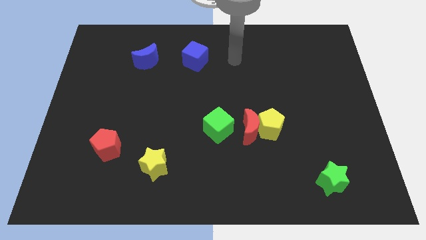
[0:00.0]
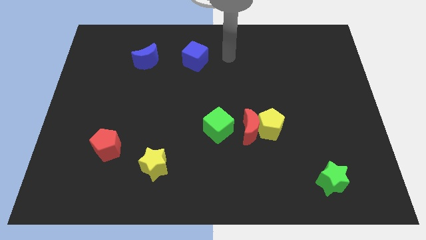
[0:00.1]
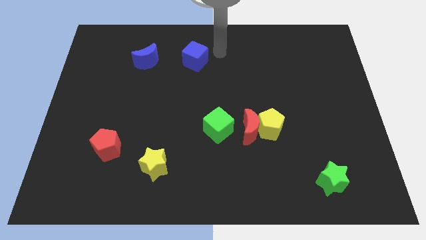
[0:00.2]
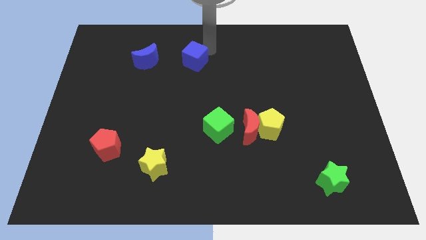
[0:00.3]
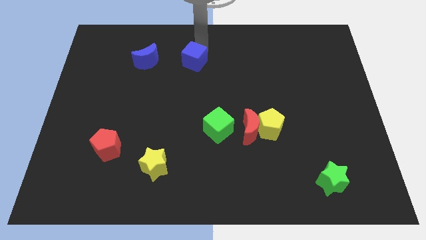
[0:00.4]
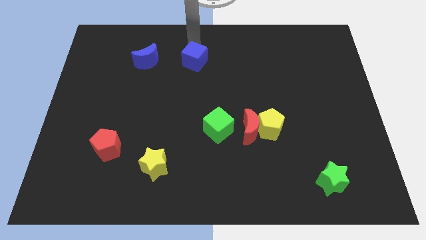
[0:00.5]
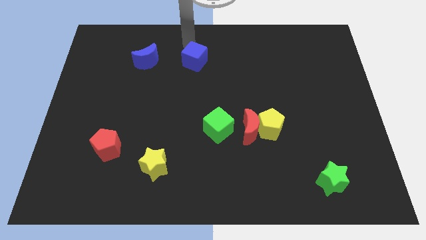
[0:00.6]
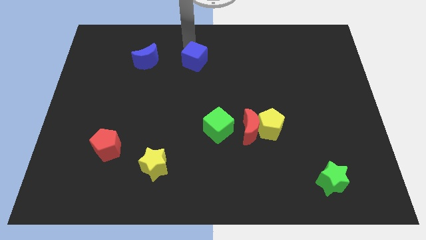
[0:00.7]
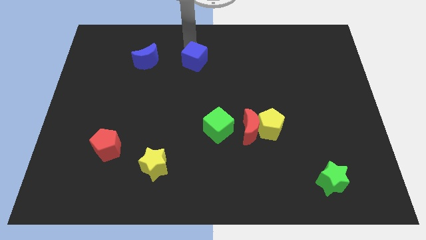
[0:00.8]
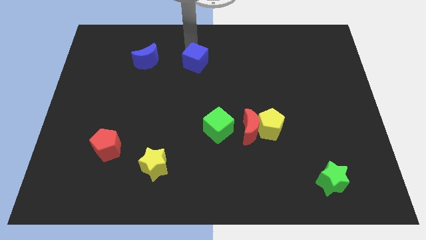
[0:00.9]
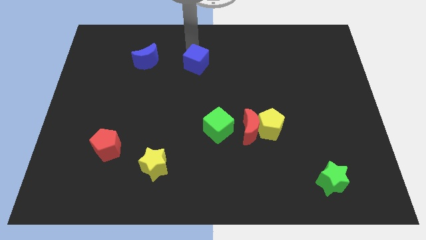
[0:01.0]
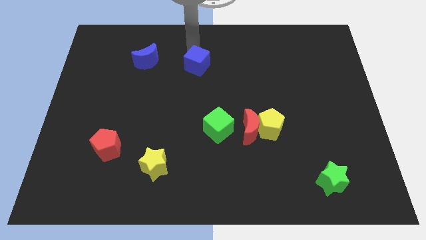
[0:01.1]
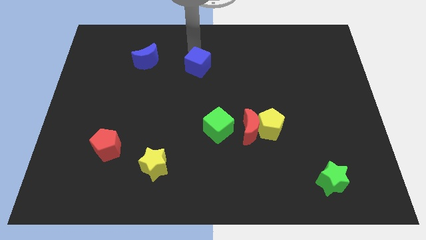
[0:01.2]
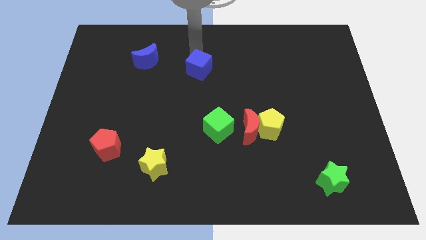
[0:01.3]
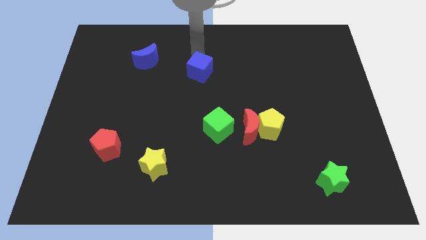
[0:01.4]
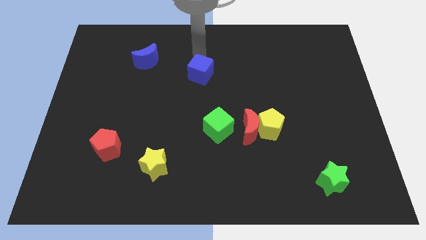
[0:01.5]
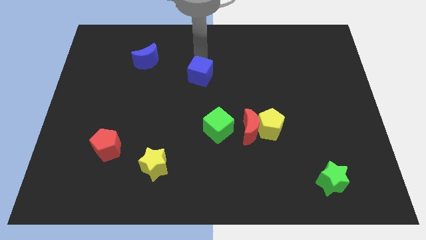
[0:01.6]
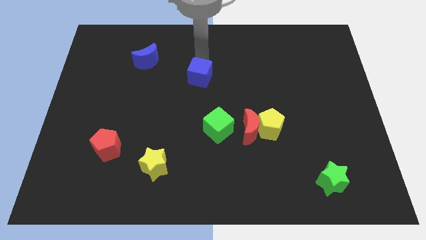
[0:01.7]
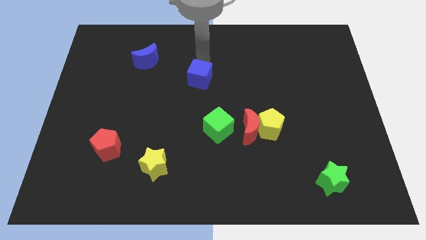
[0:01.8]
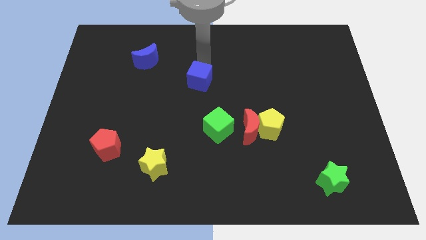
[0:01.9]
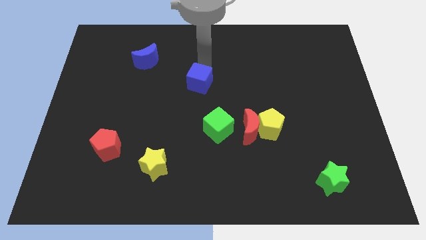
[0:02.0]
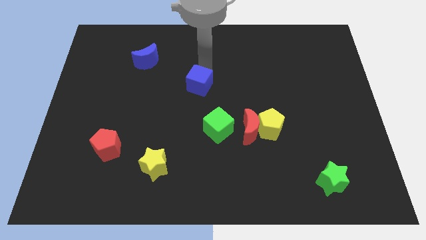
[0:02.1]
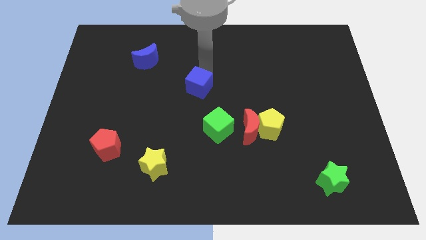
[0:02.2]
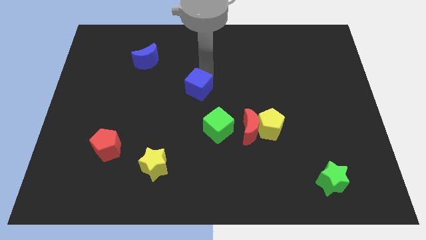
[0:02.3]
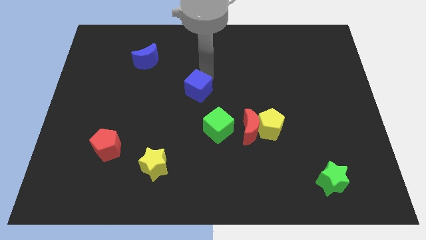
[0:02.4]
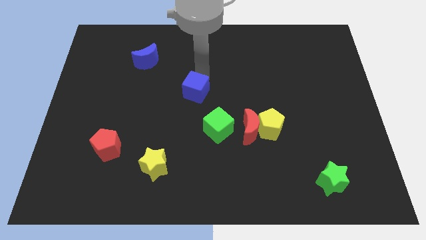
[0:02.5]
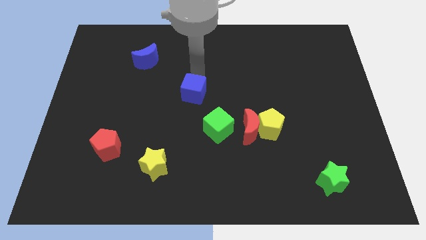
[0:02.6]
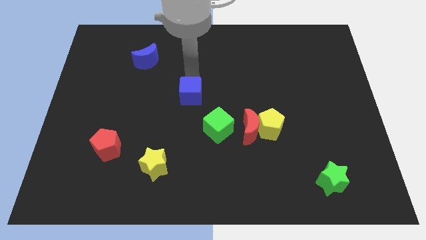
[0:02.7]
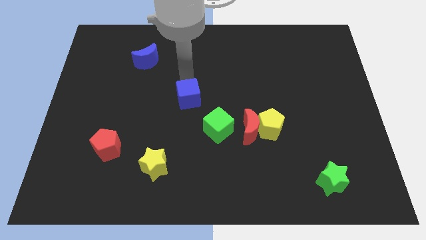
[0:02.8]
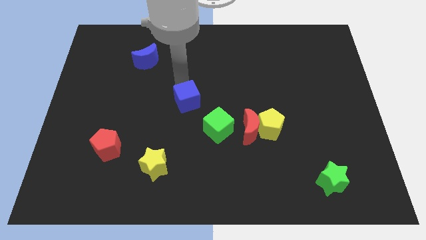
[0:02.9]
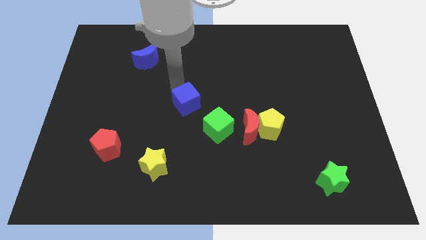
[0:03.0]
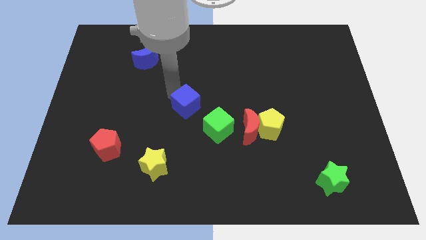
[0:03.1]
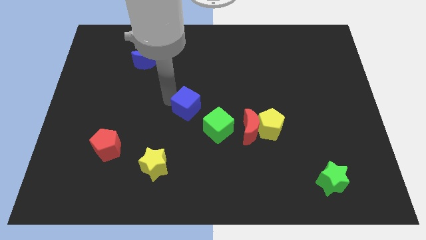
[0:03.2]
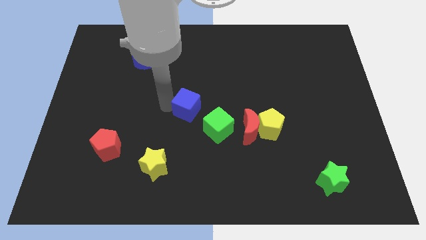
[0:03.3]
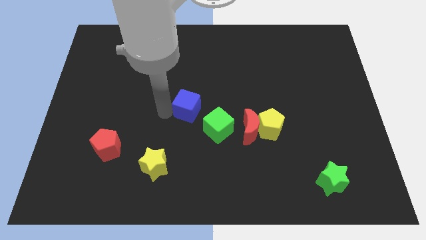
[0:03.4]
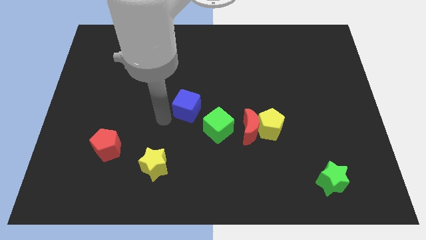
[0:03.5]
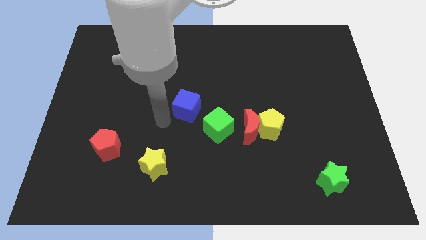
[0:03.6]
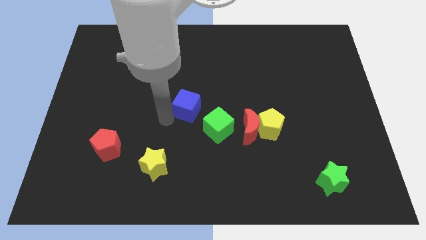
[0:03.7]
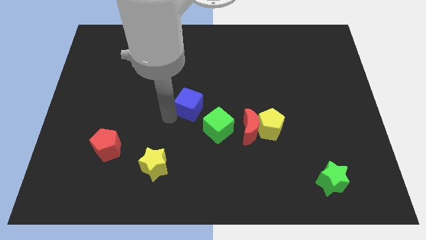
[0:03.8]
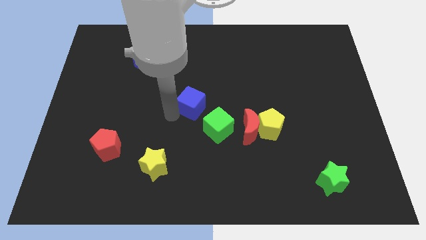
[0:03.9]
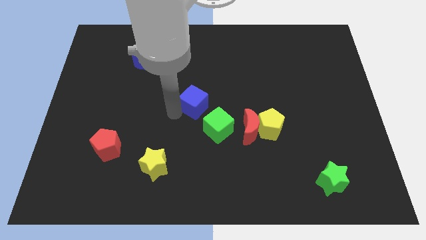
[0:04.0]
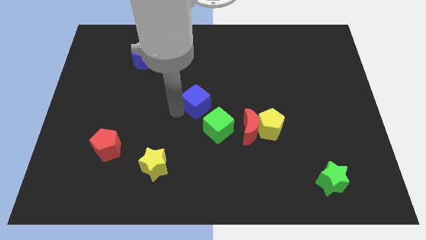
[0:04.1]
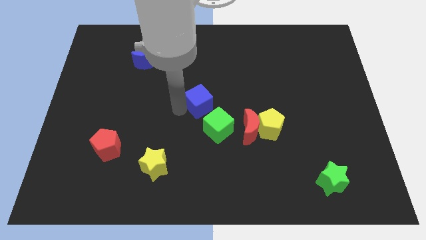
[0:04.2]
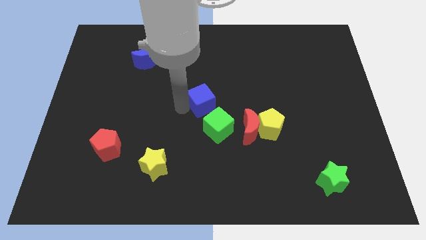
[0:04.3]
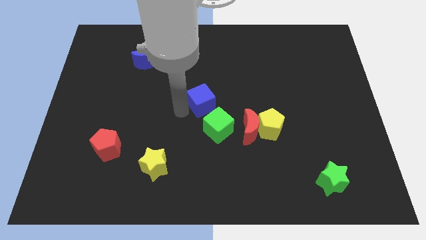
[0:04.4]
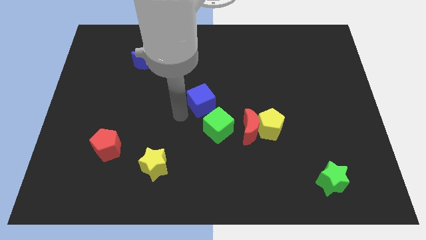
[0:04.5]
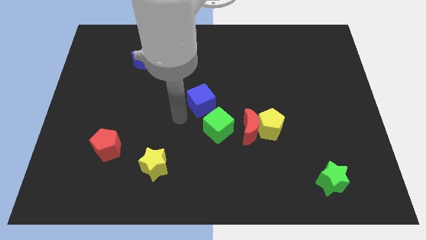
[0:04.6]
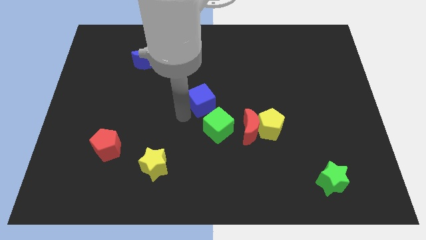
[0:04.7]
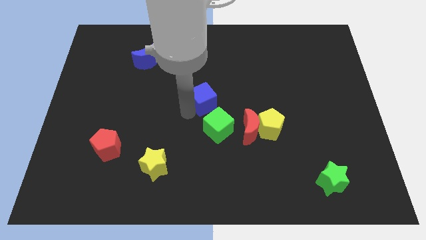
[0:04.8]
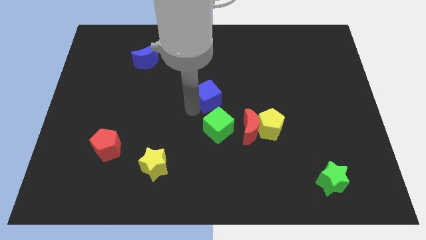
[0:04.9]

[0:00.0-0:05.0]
move the blue cube to the top left side of the red moon

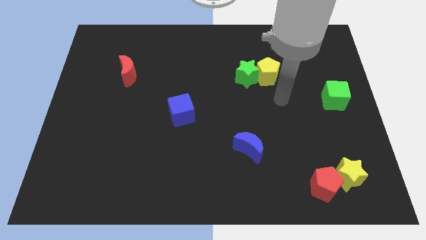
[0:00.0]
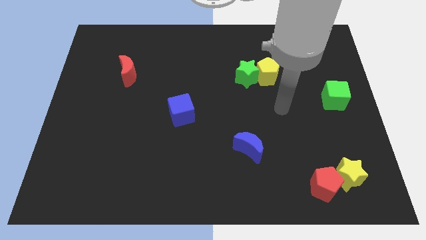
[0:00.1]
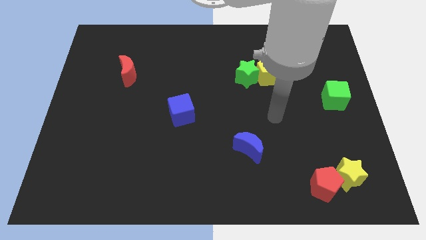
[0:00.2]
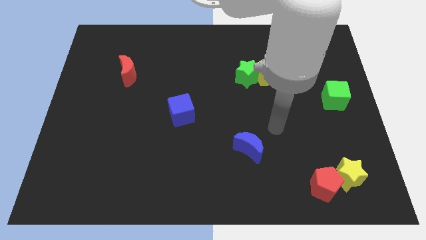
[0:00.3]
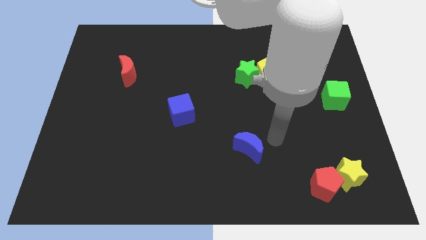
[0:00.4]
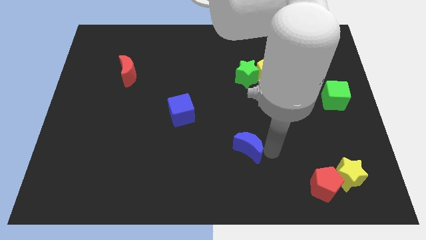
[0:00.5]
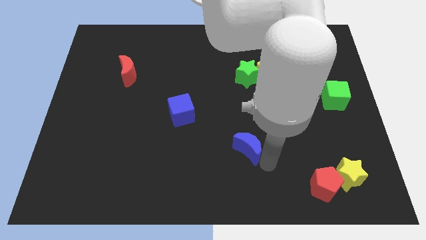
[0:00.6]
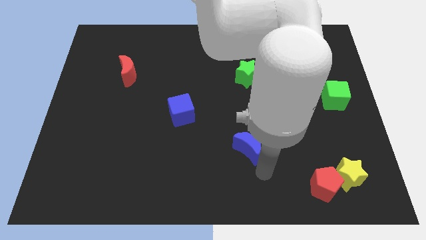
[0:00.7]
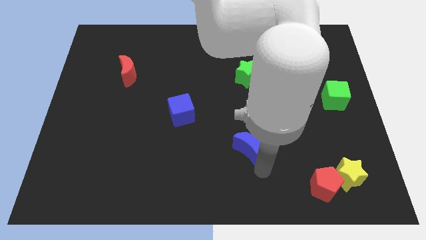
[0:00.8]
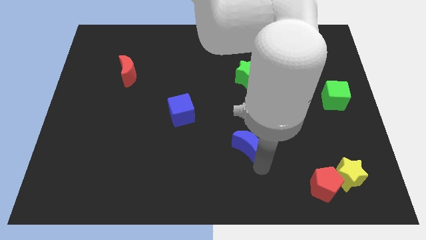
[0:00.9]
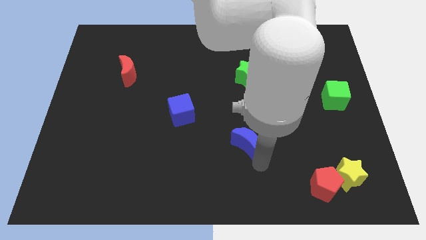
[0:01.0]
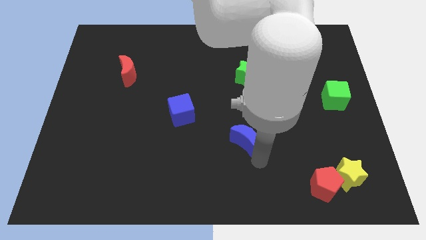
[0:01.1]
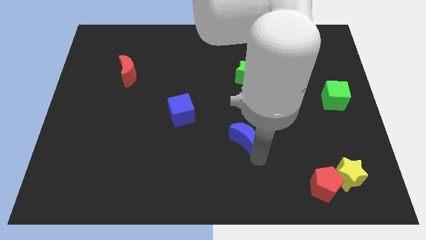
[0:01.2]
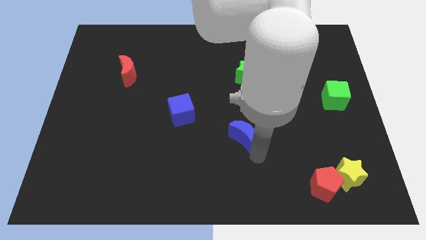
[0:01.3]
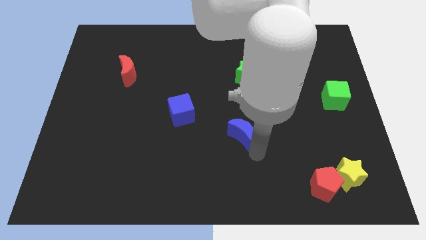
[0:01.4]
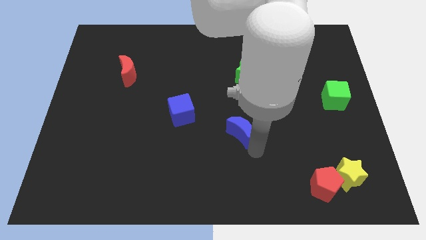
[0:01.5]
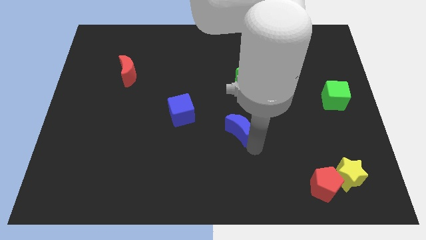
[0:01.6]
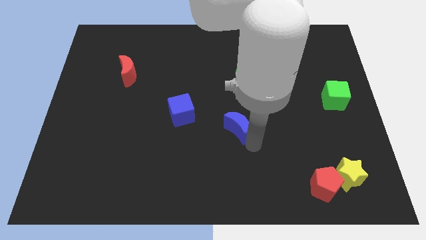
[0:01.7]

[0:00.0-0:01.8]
put the blue moon to the right side of the blue cube
